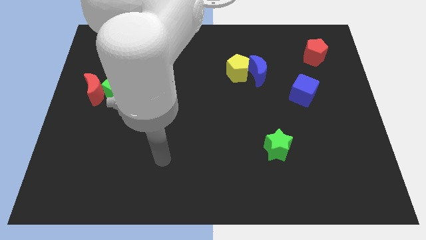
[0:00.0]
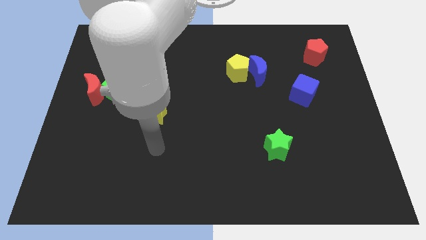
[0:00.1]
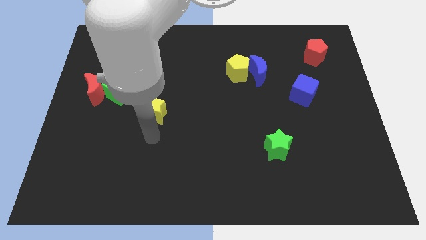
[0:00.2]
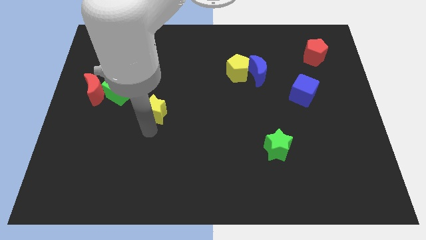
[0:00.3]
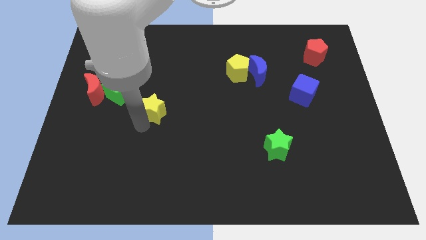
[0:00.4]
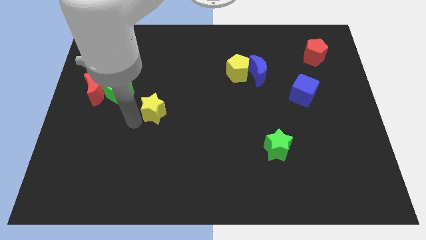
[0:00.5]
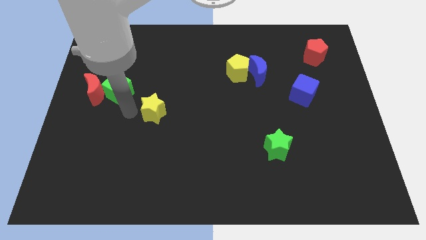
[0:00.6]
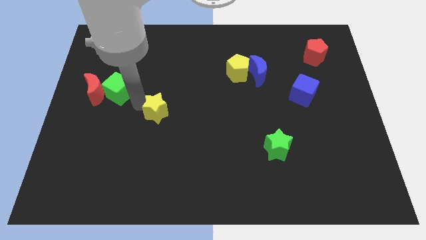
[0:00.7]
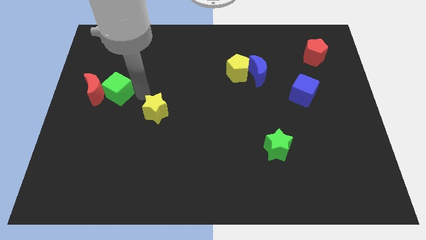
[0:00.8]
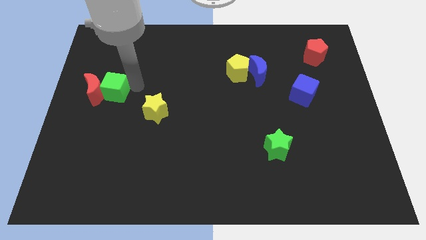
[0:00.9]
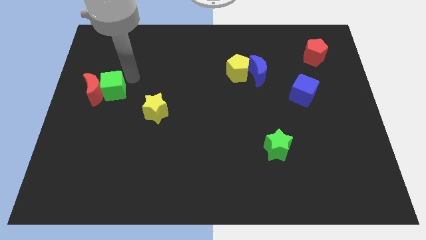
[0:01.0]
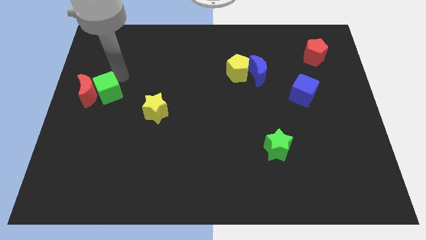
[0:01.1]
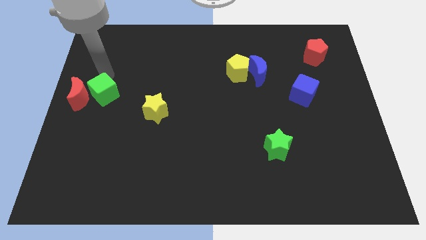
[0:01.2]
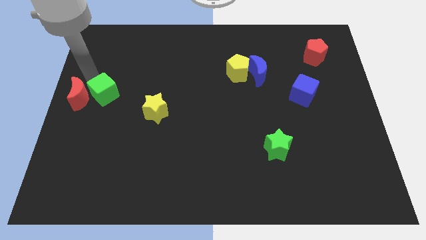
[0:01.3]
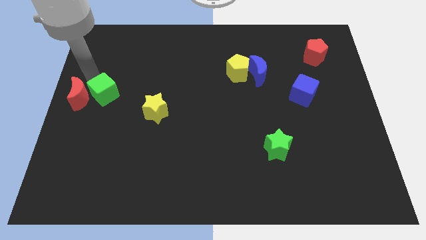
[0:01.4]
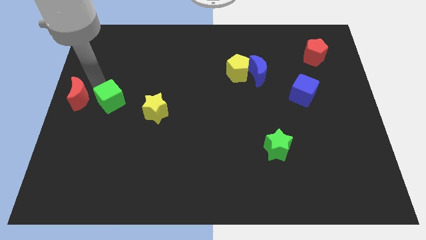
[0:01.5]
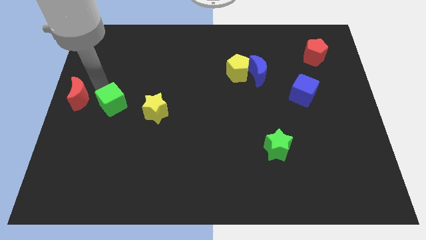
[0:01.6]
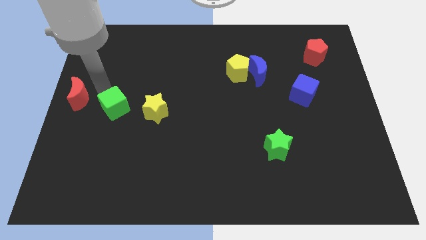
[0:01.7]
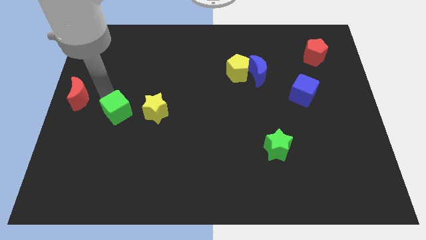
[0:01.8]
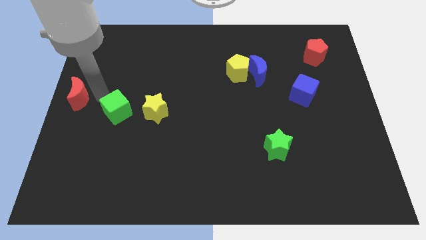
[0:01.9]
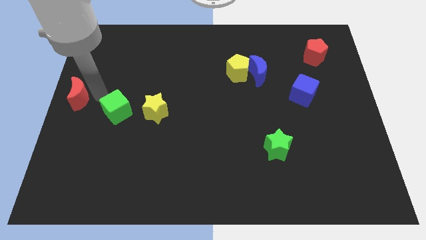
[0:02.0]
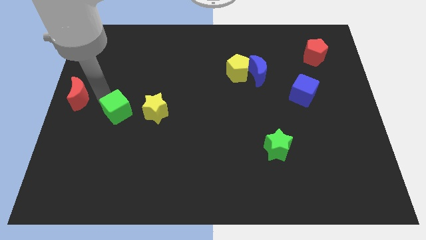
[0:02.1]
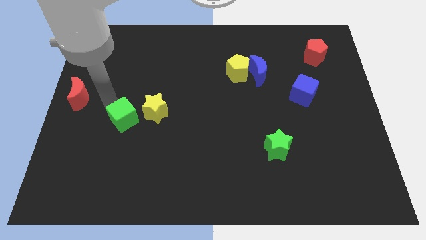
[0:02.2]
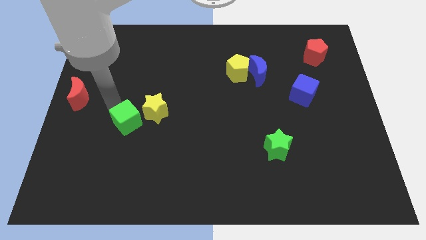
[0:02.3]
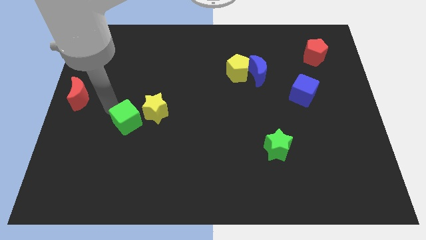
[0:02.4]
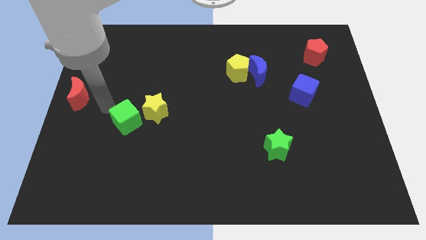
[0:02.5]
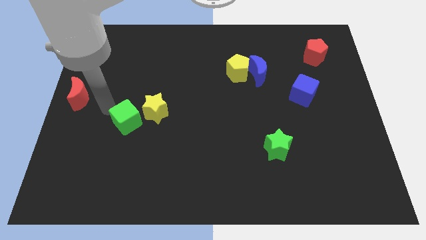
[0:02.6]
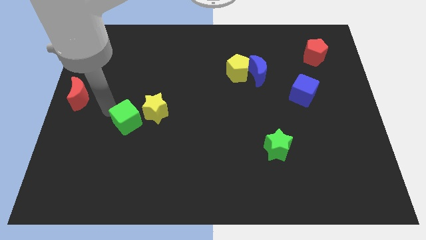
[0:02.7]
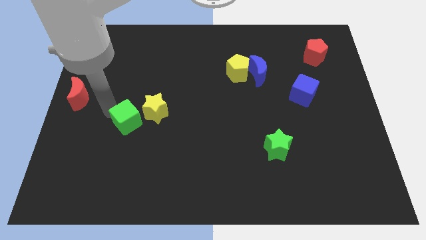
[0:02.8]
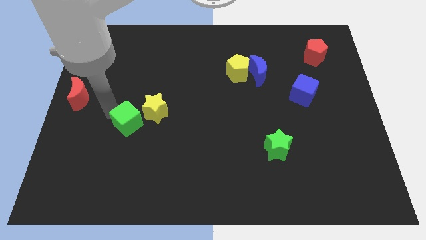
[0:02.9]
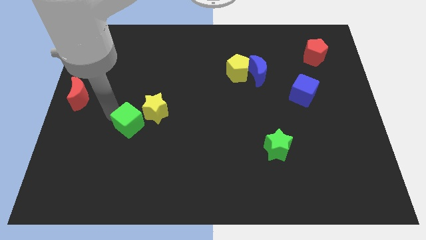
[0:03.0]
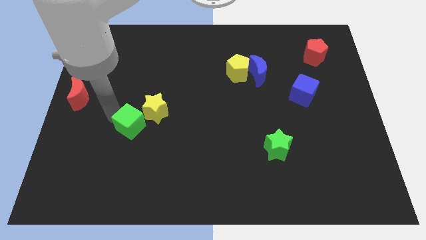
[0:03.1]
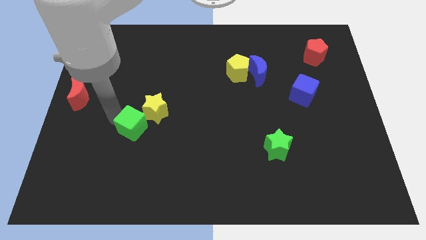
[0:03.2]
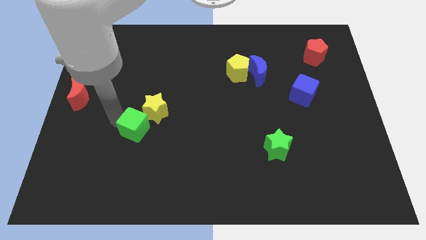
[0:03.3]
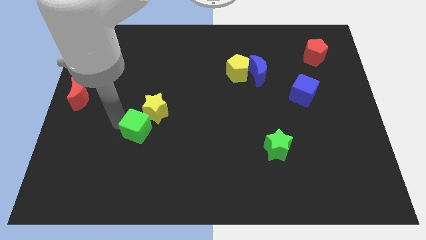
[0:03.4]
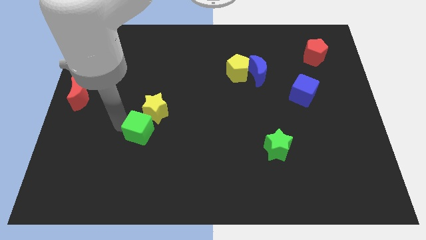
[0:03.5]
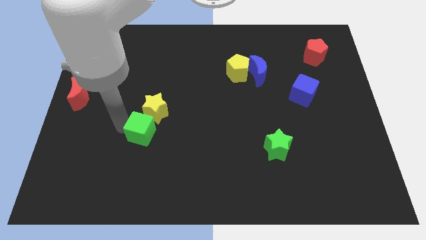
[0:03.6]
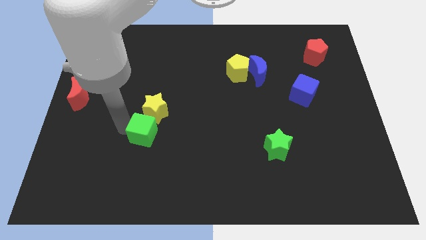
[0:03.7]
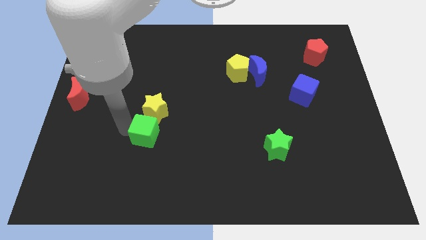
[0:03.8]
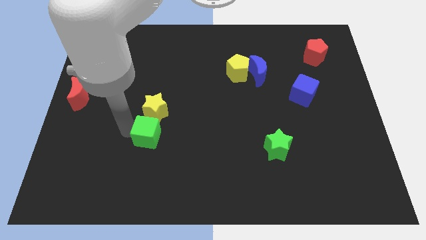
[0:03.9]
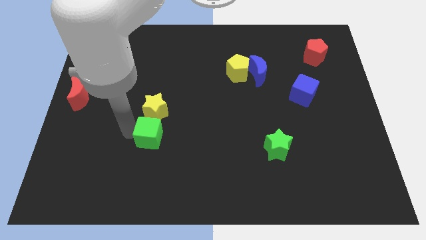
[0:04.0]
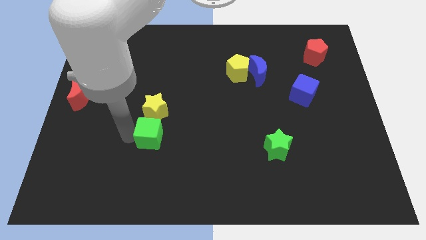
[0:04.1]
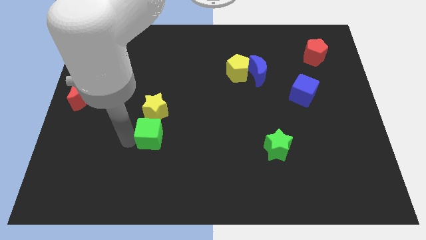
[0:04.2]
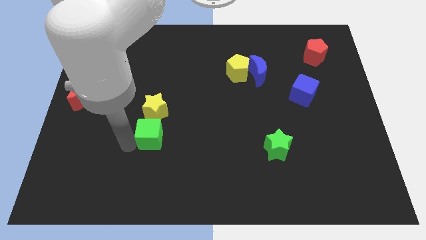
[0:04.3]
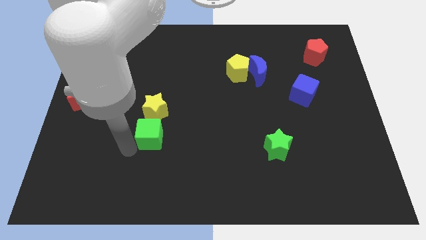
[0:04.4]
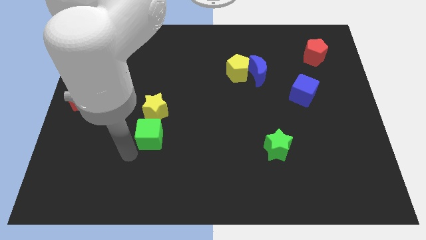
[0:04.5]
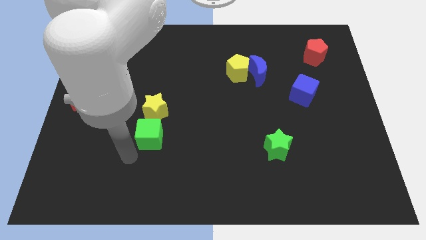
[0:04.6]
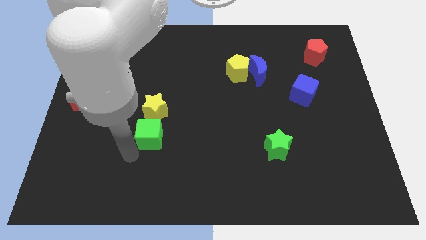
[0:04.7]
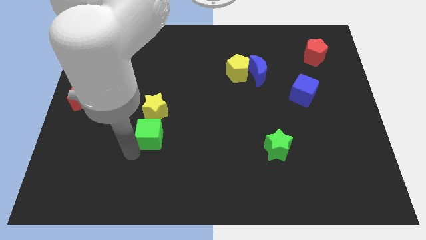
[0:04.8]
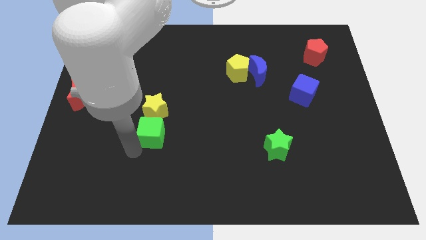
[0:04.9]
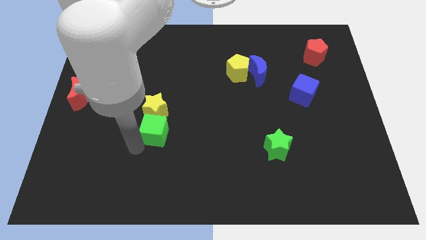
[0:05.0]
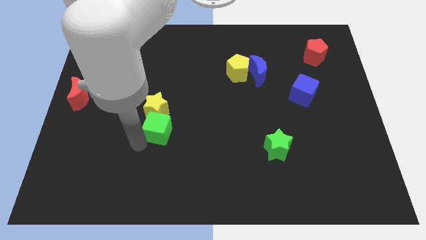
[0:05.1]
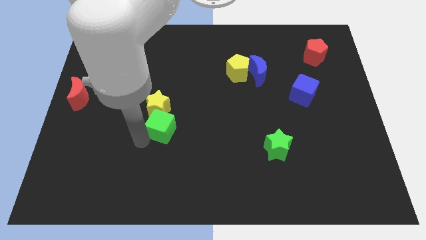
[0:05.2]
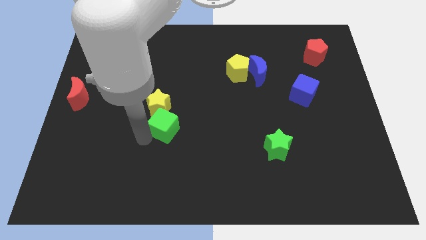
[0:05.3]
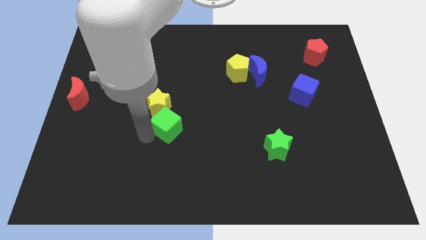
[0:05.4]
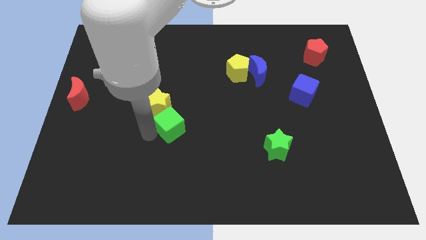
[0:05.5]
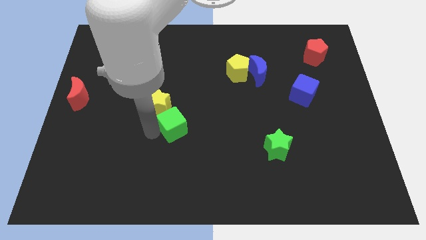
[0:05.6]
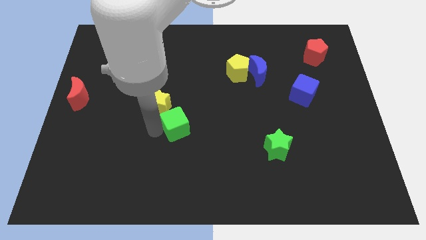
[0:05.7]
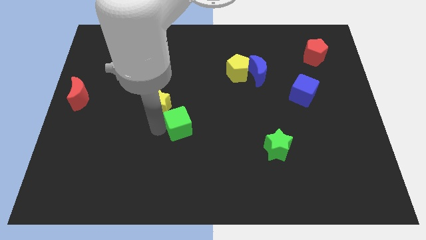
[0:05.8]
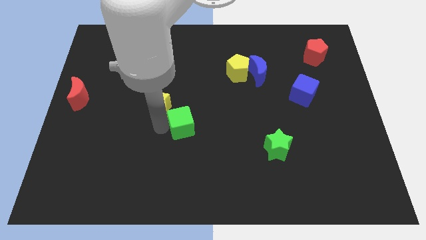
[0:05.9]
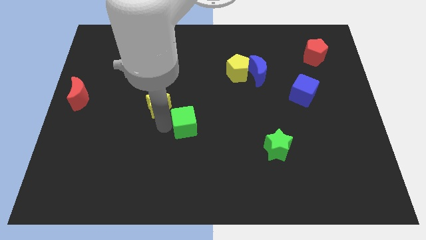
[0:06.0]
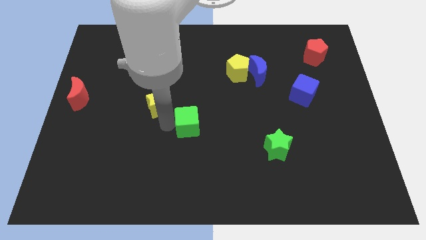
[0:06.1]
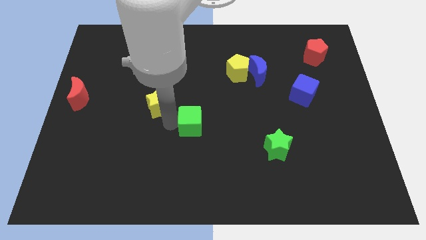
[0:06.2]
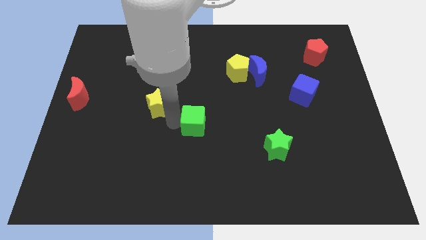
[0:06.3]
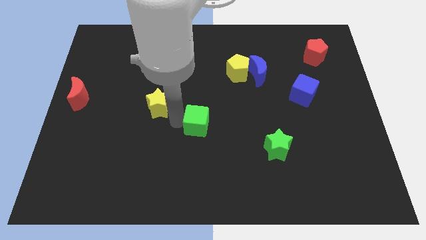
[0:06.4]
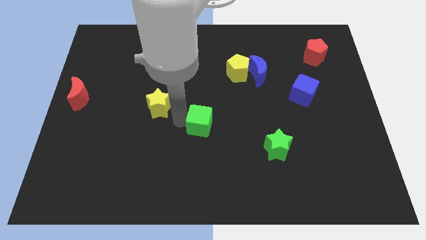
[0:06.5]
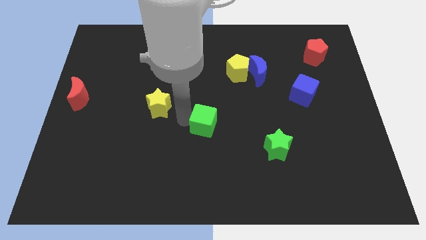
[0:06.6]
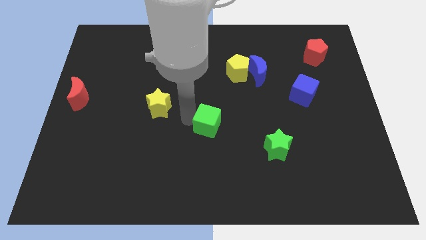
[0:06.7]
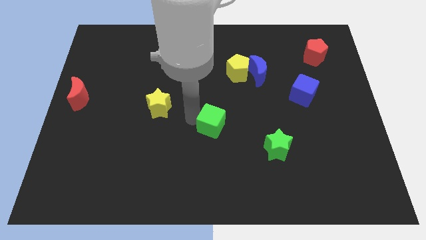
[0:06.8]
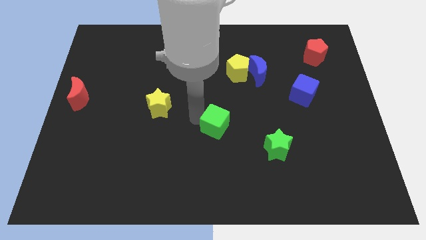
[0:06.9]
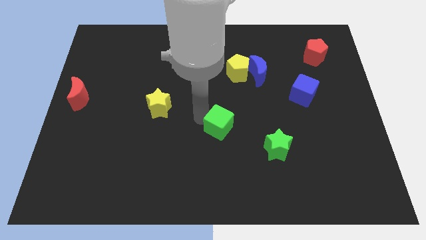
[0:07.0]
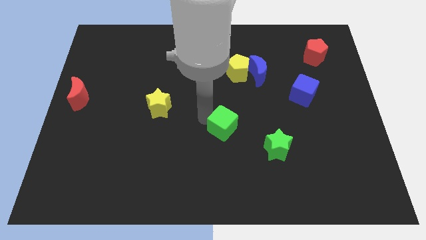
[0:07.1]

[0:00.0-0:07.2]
move the green cube down and right diagonally

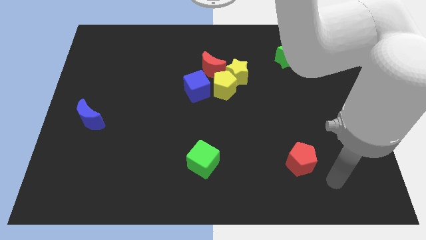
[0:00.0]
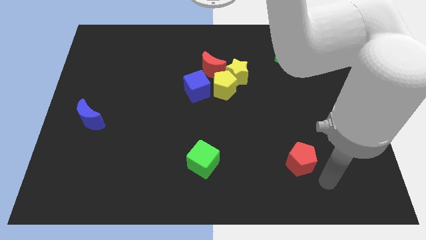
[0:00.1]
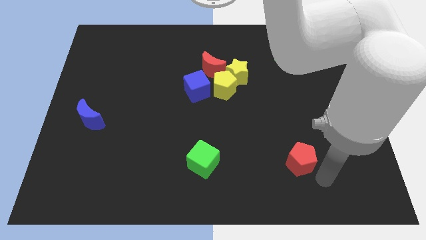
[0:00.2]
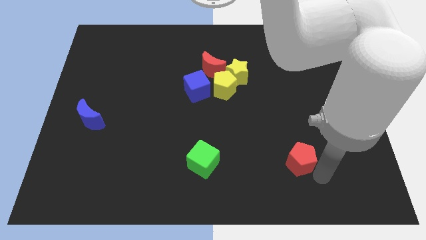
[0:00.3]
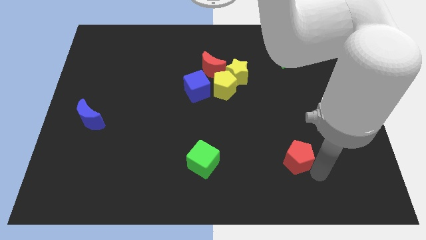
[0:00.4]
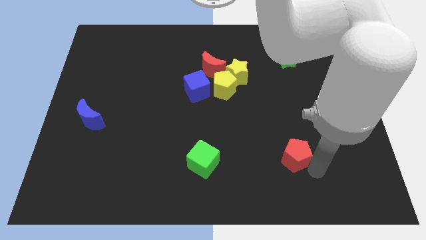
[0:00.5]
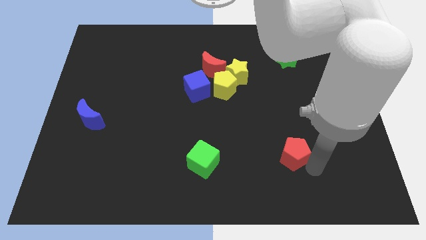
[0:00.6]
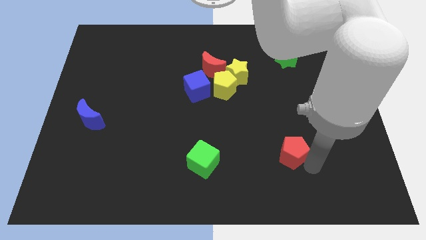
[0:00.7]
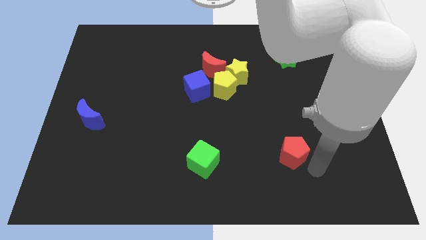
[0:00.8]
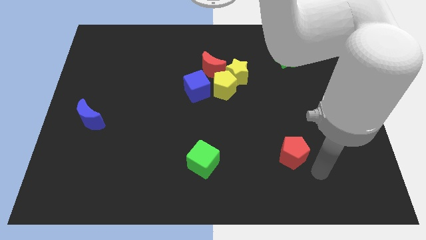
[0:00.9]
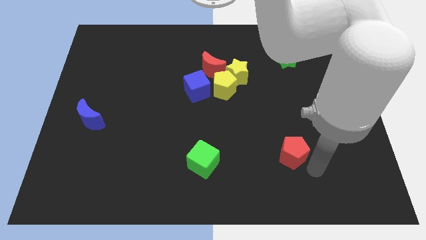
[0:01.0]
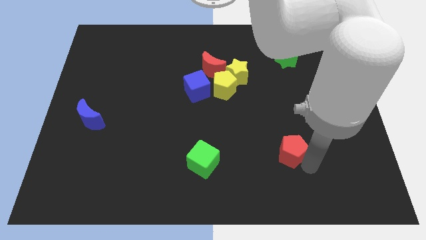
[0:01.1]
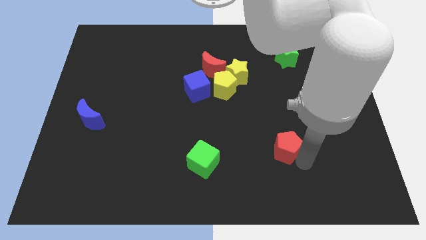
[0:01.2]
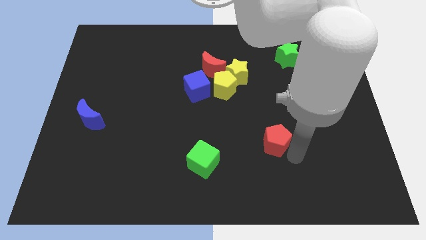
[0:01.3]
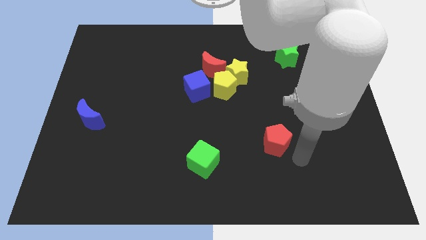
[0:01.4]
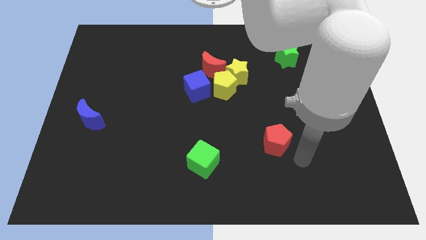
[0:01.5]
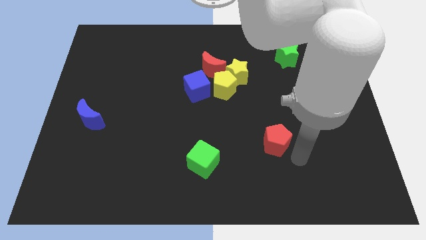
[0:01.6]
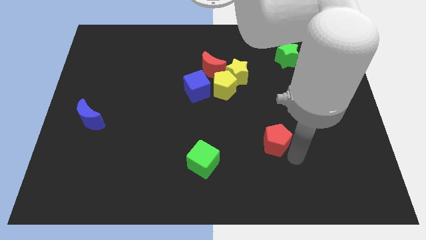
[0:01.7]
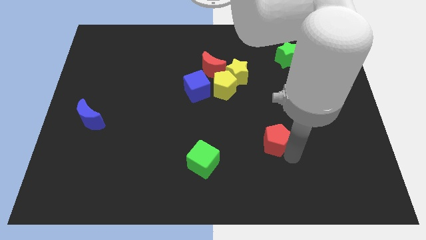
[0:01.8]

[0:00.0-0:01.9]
move the red pentagon somewhat up and then to the left
